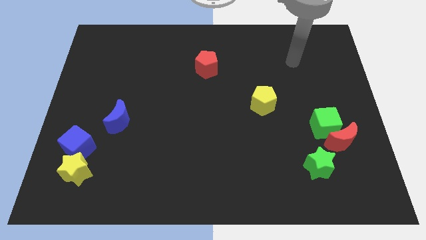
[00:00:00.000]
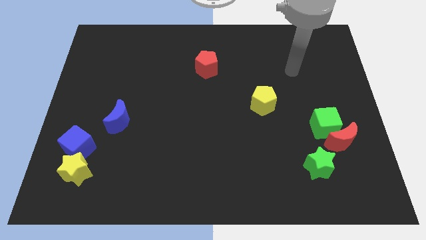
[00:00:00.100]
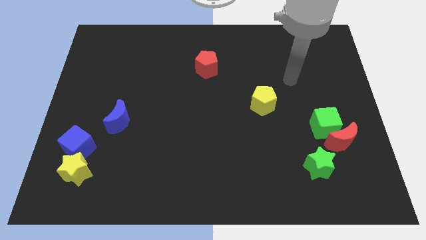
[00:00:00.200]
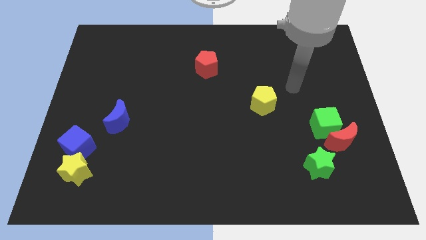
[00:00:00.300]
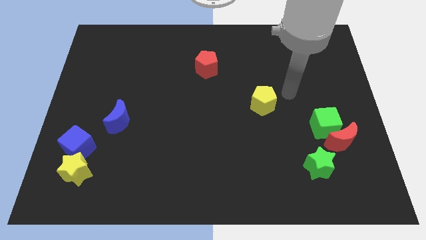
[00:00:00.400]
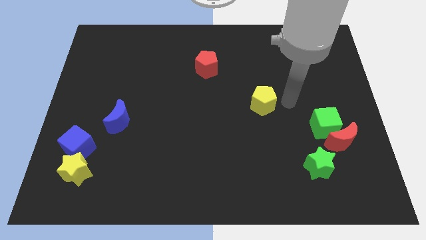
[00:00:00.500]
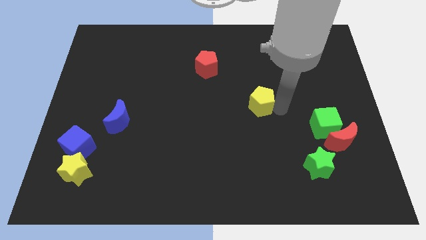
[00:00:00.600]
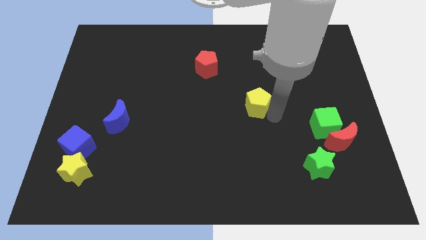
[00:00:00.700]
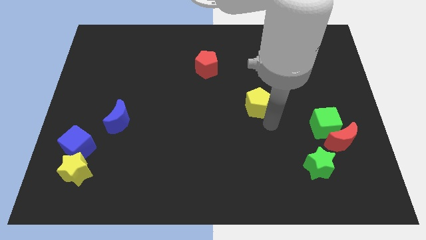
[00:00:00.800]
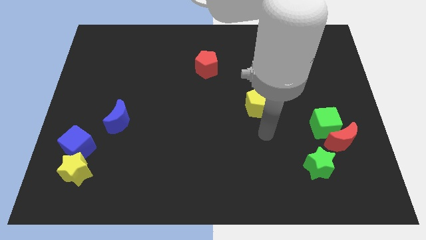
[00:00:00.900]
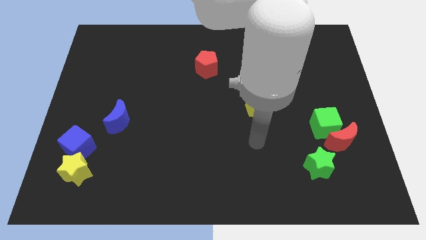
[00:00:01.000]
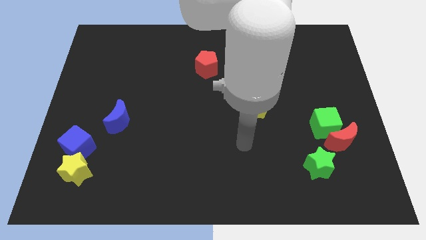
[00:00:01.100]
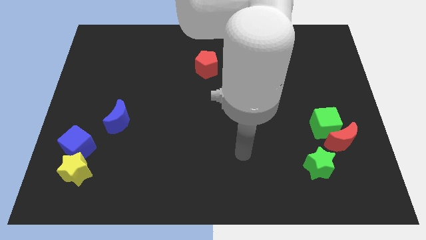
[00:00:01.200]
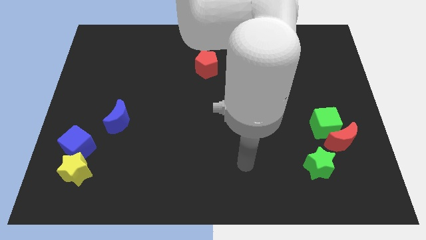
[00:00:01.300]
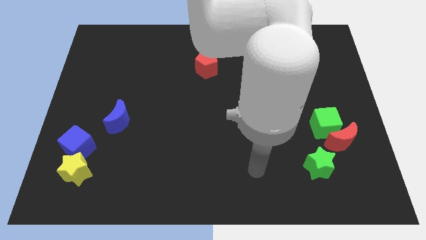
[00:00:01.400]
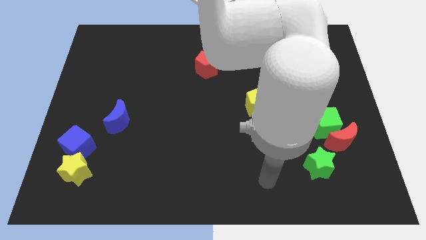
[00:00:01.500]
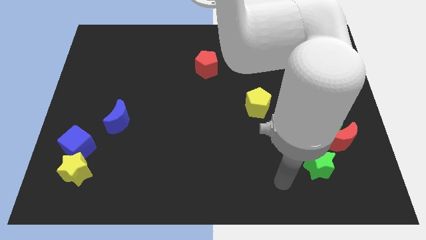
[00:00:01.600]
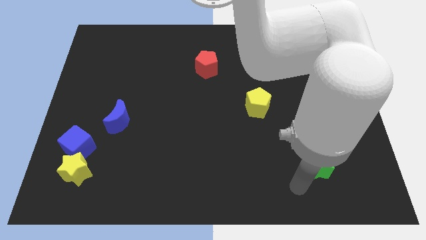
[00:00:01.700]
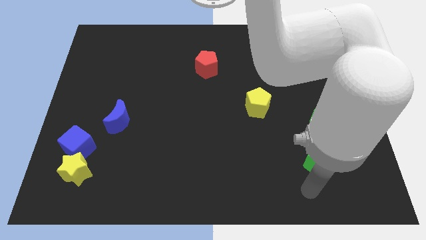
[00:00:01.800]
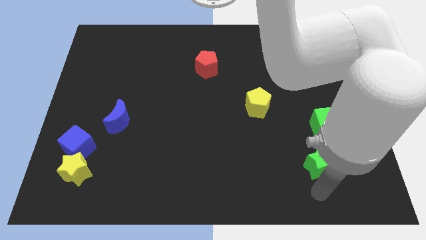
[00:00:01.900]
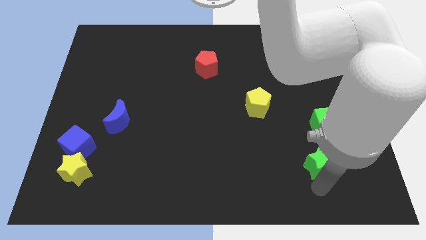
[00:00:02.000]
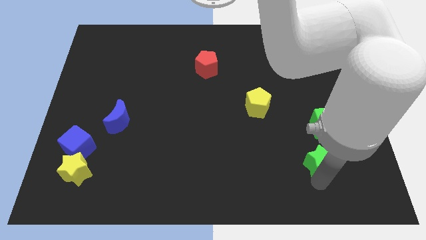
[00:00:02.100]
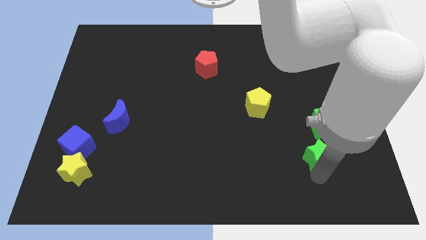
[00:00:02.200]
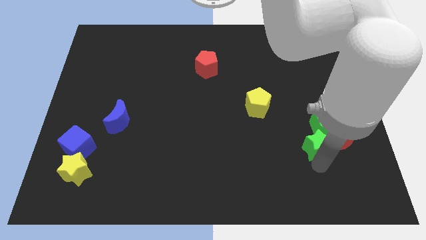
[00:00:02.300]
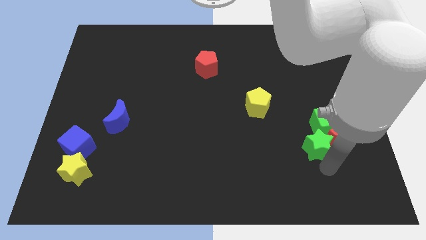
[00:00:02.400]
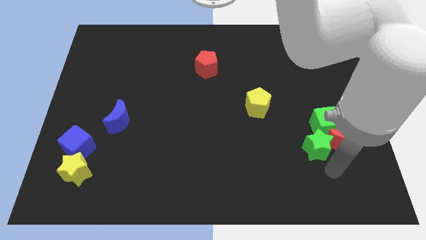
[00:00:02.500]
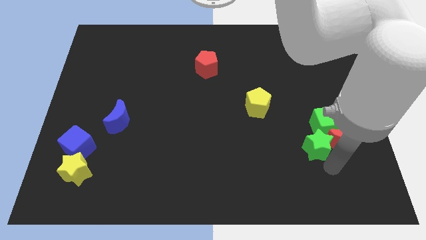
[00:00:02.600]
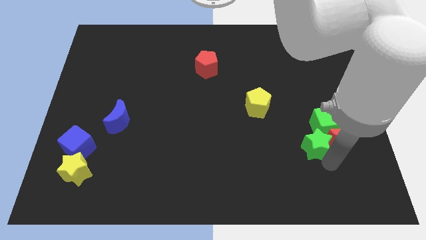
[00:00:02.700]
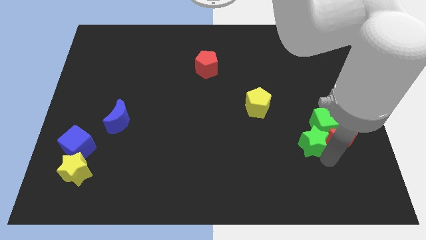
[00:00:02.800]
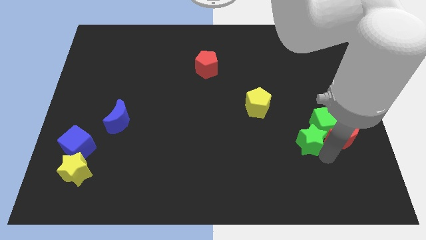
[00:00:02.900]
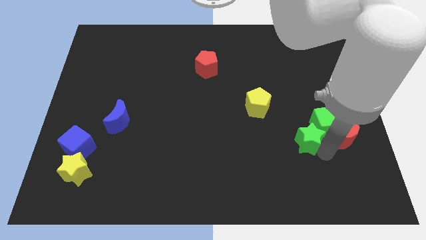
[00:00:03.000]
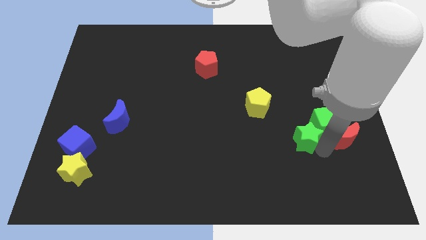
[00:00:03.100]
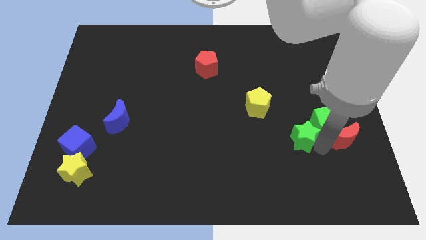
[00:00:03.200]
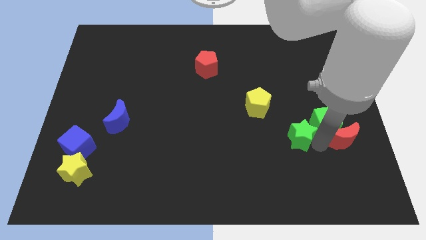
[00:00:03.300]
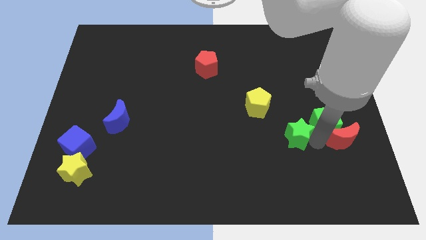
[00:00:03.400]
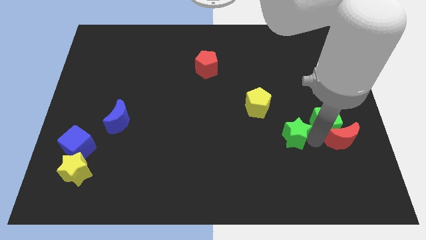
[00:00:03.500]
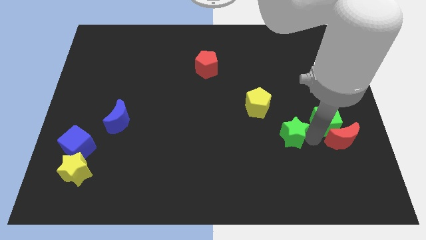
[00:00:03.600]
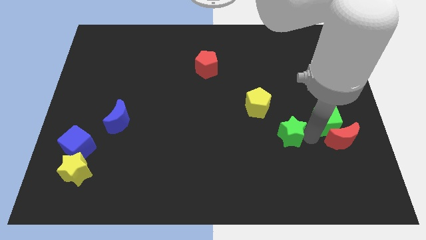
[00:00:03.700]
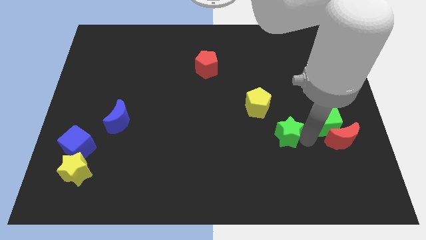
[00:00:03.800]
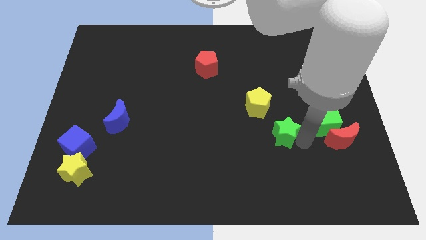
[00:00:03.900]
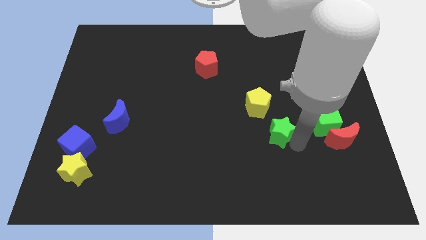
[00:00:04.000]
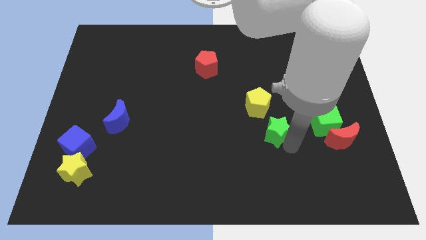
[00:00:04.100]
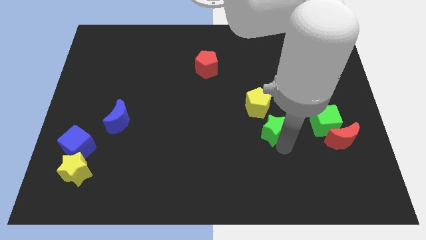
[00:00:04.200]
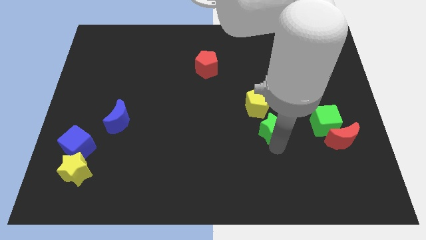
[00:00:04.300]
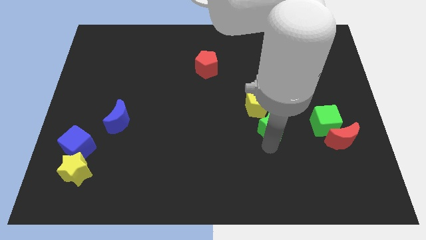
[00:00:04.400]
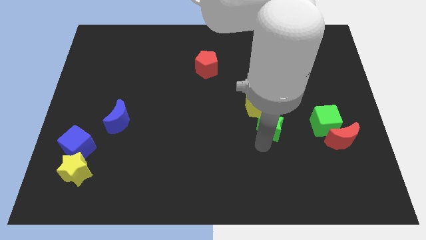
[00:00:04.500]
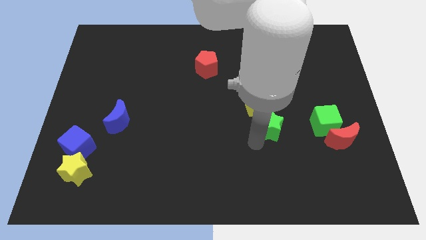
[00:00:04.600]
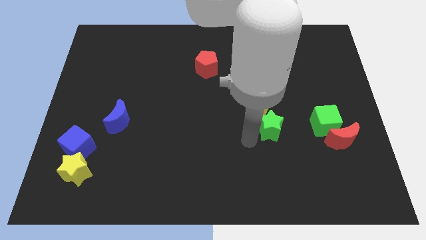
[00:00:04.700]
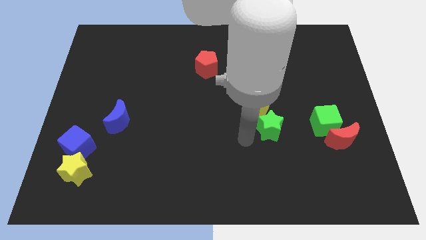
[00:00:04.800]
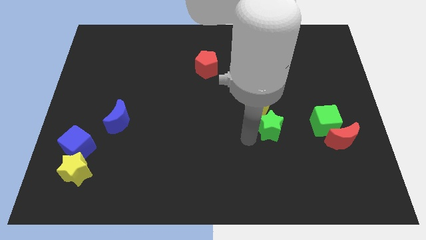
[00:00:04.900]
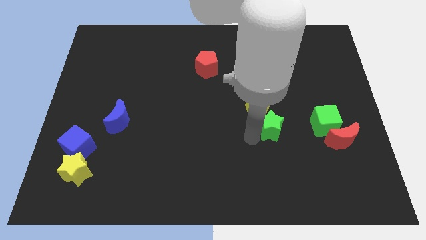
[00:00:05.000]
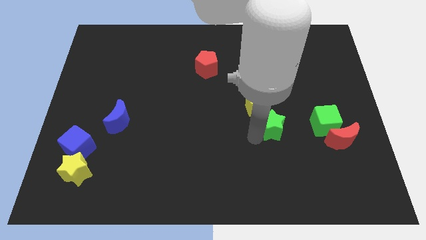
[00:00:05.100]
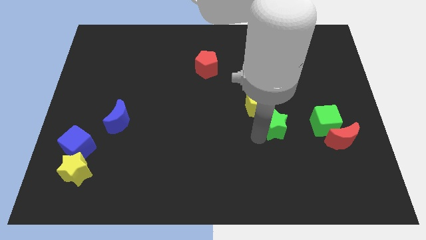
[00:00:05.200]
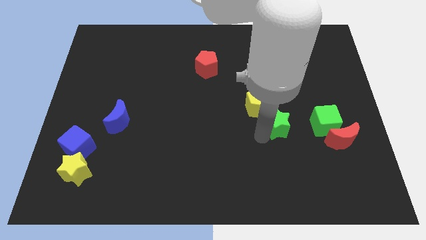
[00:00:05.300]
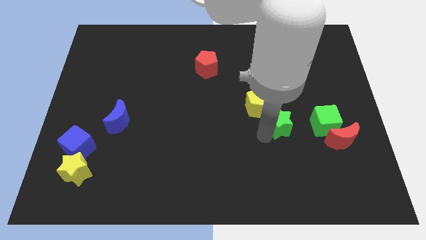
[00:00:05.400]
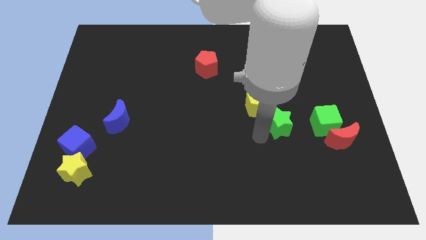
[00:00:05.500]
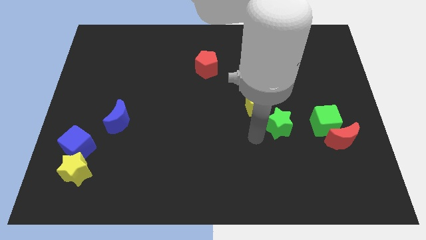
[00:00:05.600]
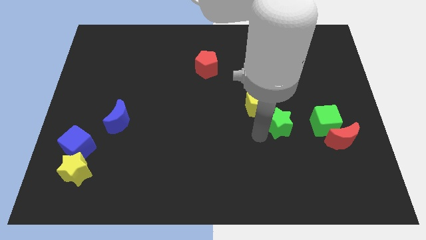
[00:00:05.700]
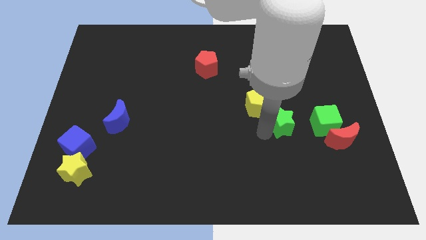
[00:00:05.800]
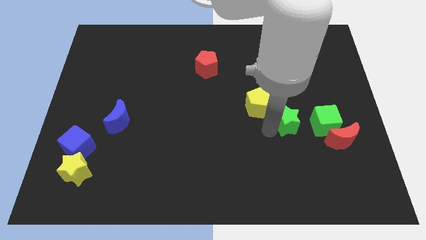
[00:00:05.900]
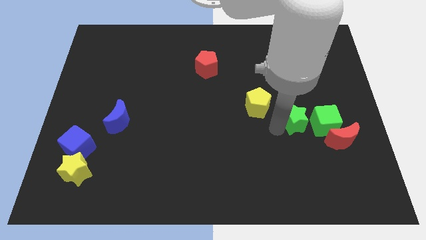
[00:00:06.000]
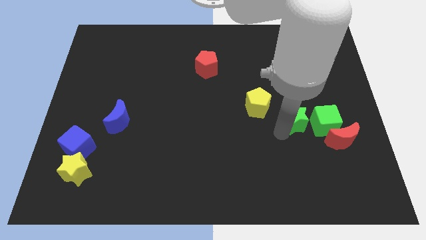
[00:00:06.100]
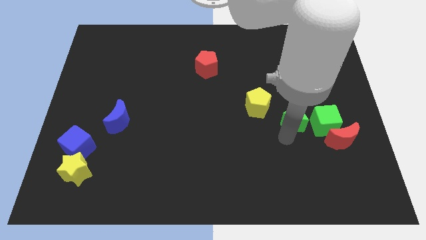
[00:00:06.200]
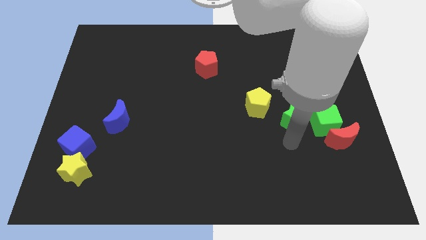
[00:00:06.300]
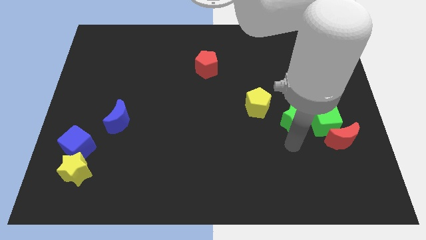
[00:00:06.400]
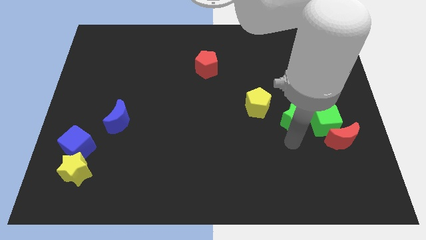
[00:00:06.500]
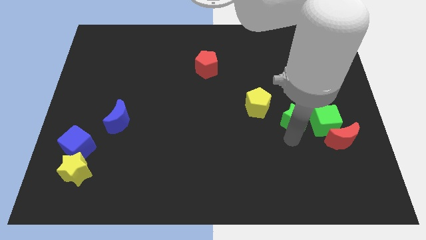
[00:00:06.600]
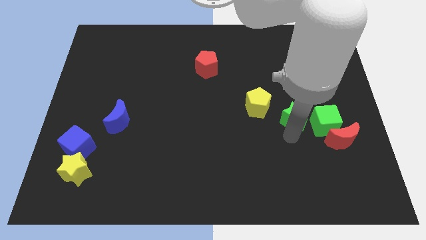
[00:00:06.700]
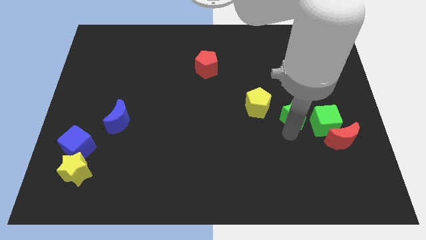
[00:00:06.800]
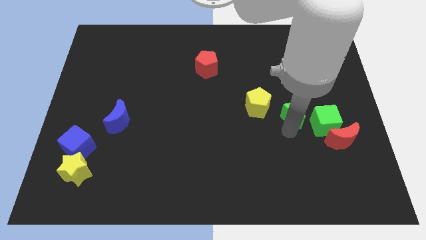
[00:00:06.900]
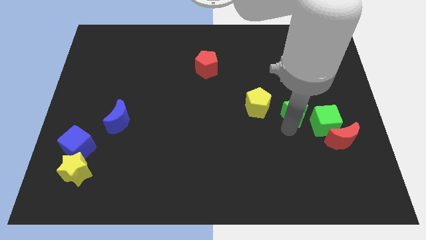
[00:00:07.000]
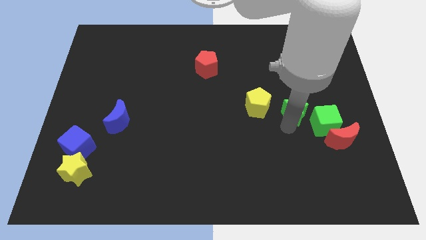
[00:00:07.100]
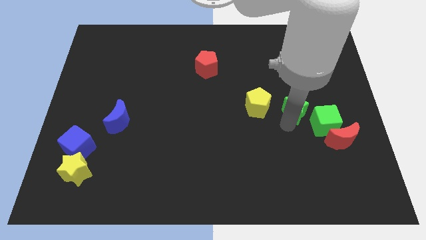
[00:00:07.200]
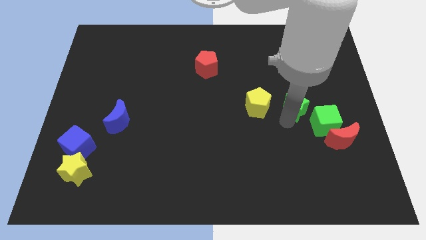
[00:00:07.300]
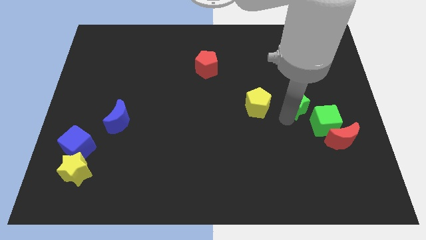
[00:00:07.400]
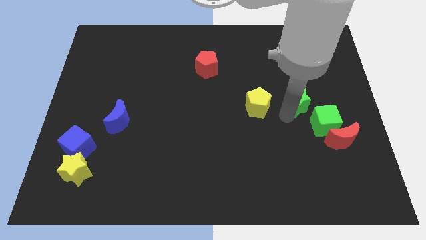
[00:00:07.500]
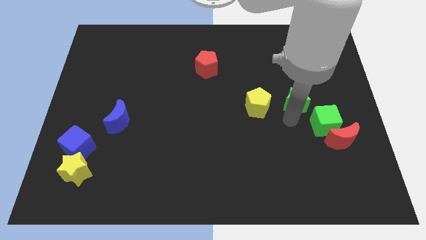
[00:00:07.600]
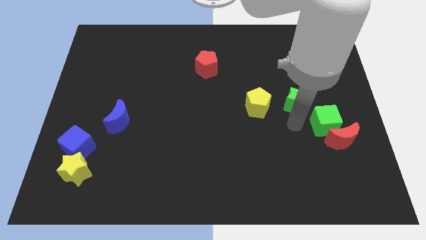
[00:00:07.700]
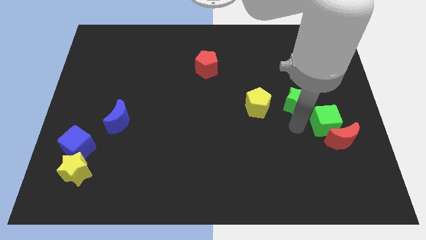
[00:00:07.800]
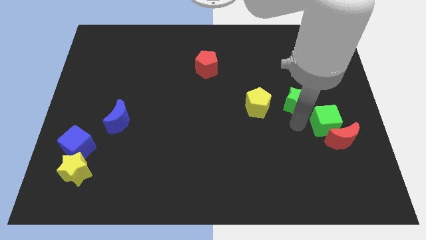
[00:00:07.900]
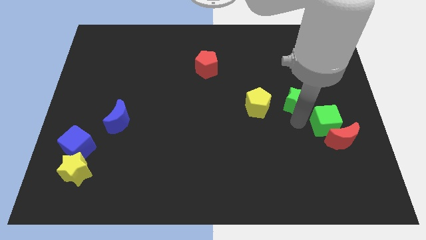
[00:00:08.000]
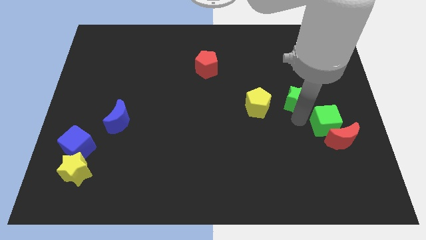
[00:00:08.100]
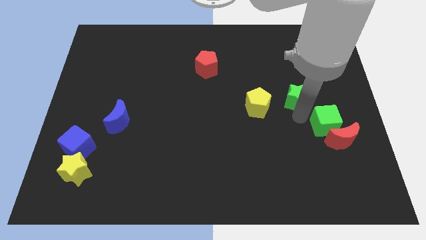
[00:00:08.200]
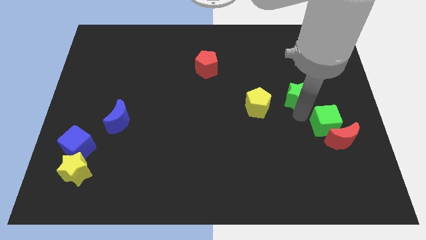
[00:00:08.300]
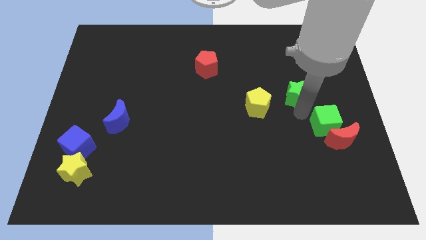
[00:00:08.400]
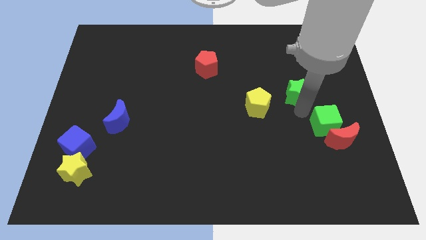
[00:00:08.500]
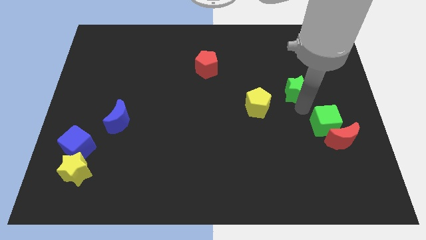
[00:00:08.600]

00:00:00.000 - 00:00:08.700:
push the green star upwards
